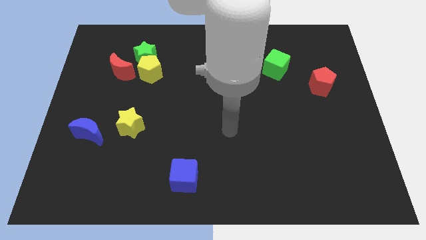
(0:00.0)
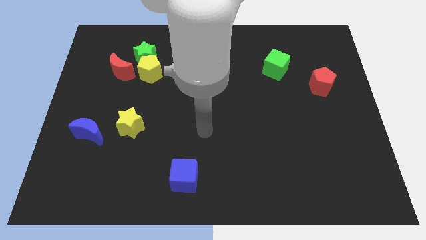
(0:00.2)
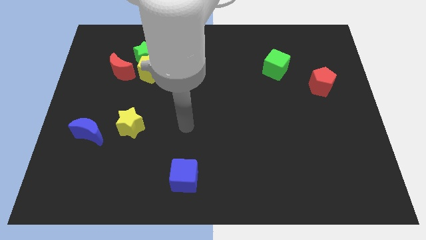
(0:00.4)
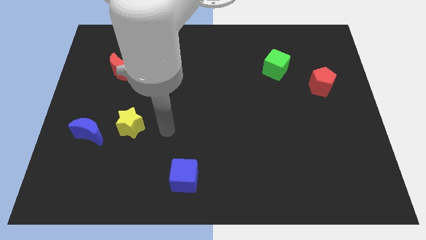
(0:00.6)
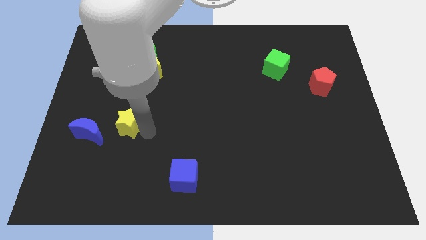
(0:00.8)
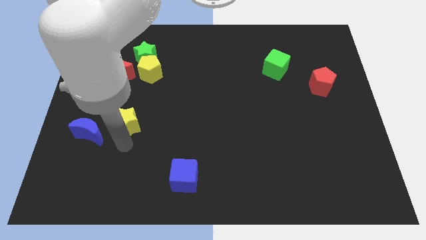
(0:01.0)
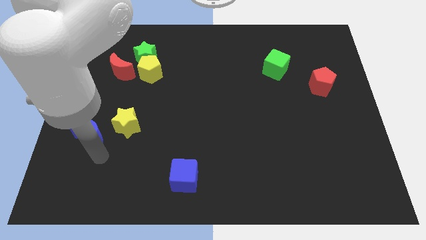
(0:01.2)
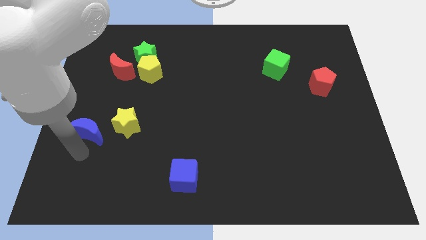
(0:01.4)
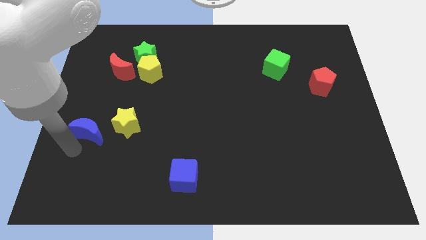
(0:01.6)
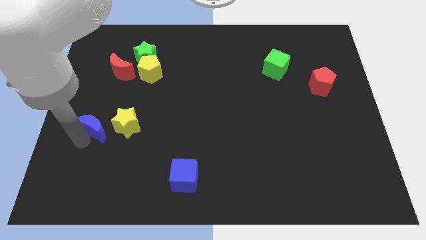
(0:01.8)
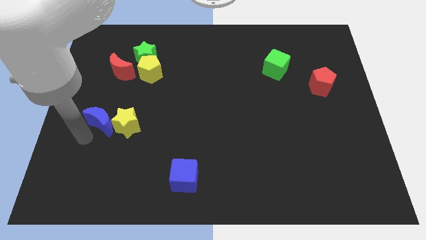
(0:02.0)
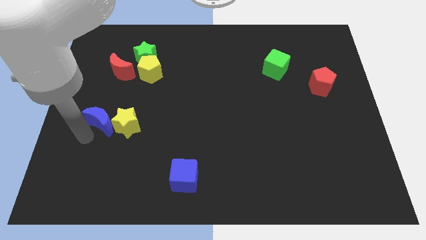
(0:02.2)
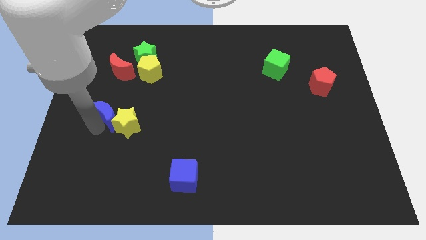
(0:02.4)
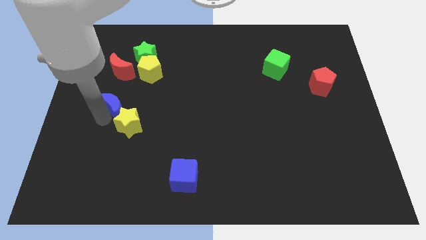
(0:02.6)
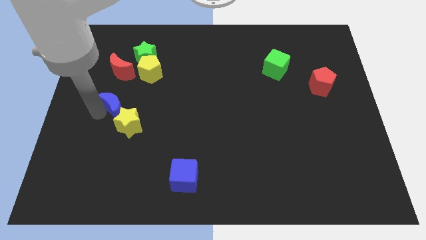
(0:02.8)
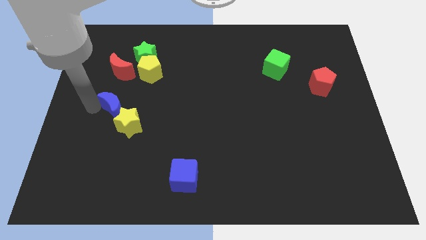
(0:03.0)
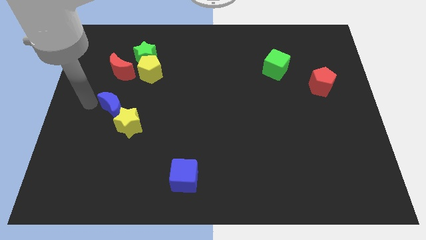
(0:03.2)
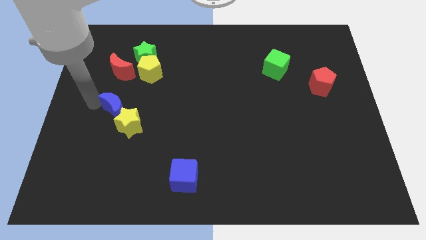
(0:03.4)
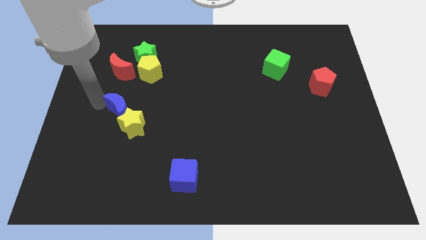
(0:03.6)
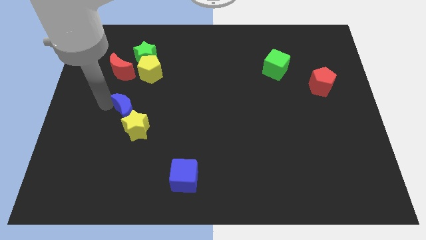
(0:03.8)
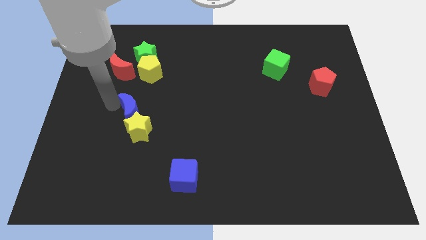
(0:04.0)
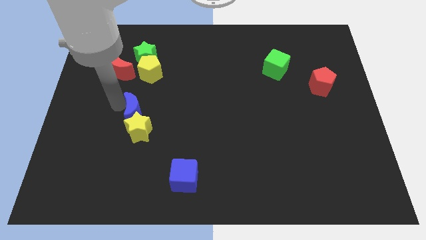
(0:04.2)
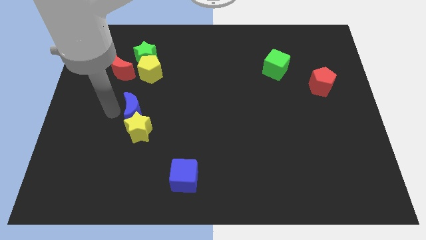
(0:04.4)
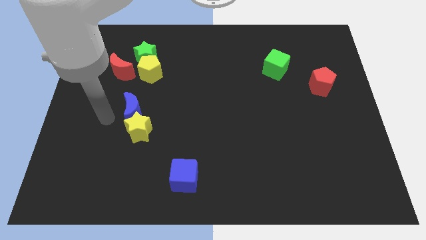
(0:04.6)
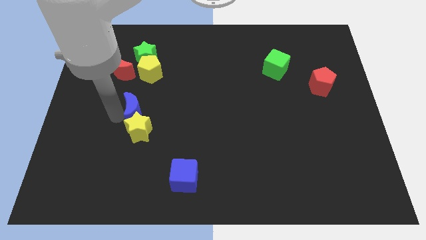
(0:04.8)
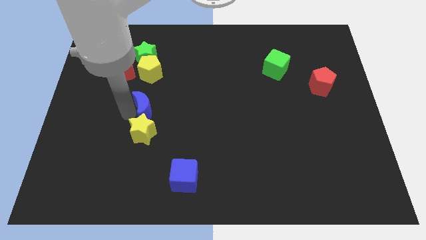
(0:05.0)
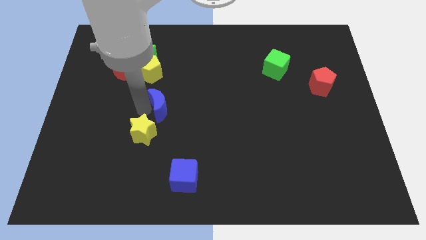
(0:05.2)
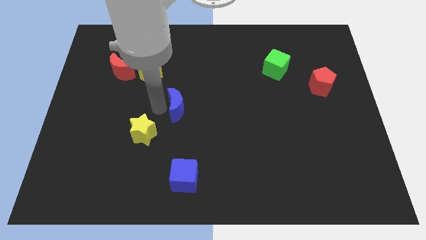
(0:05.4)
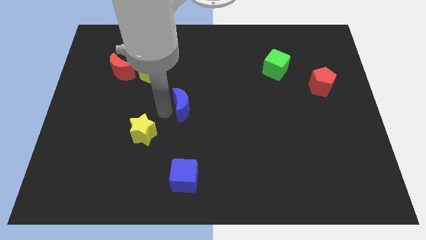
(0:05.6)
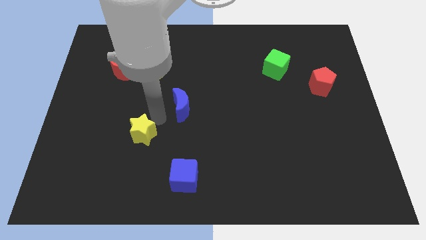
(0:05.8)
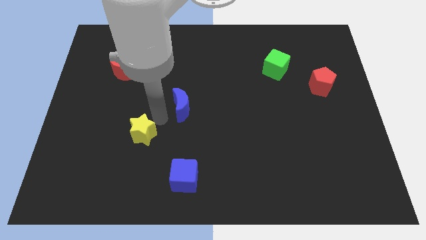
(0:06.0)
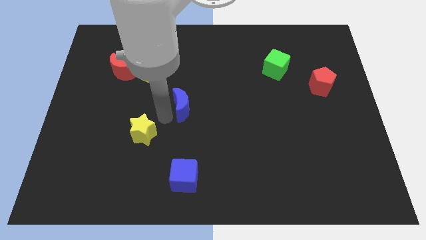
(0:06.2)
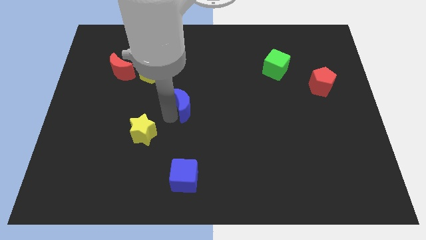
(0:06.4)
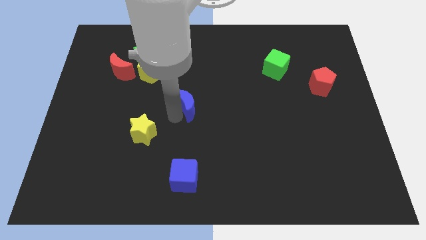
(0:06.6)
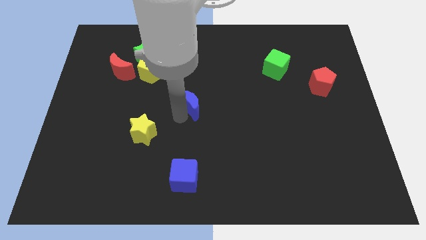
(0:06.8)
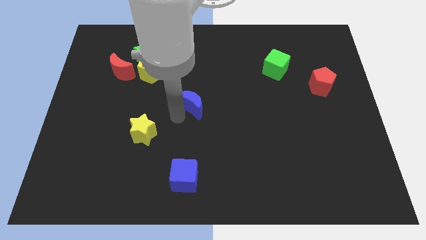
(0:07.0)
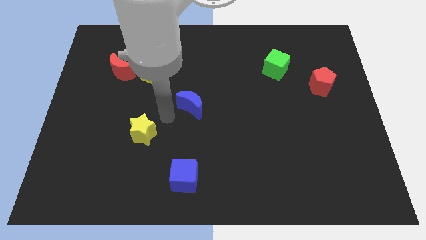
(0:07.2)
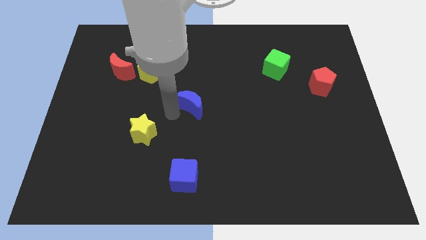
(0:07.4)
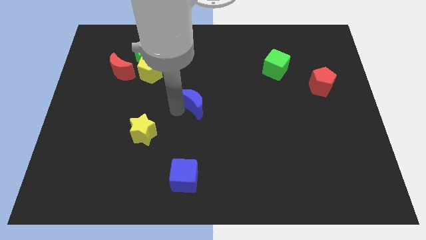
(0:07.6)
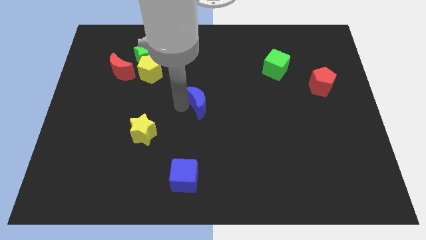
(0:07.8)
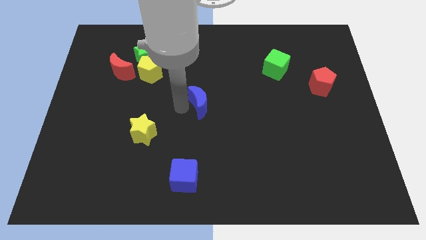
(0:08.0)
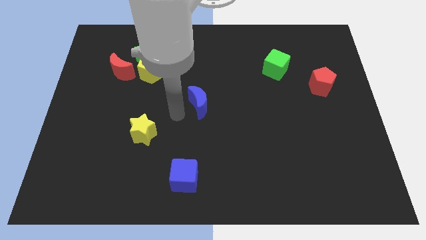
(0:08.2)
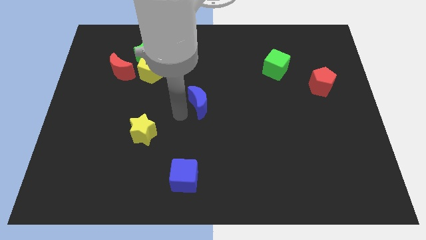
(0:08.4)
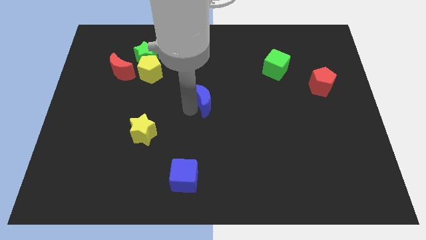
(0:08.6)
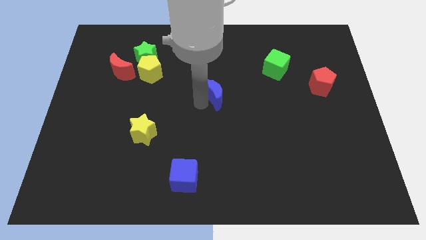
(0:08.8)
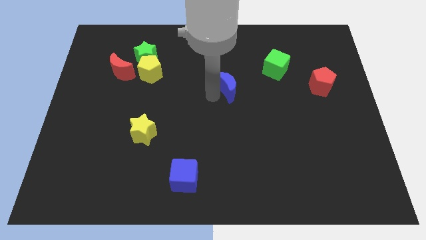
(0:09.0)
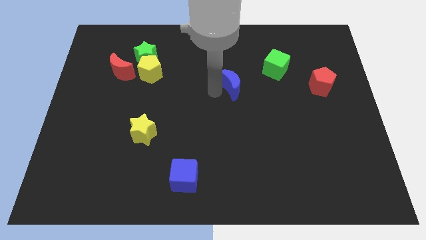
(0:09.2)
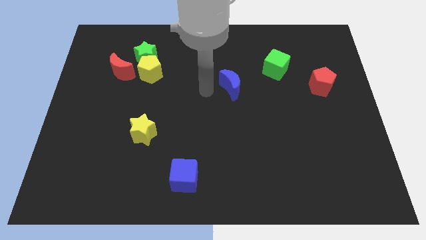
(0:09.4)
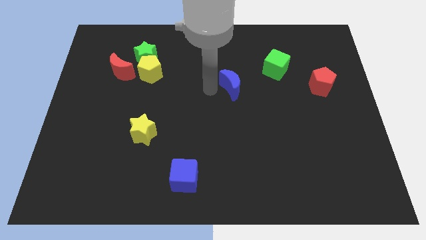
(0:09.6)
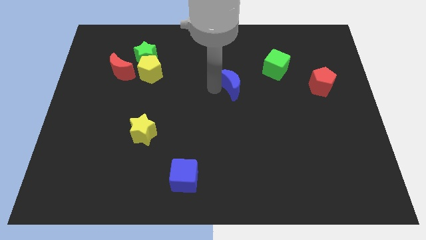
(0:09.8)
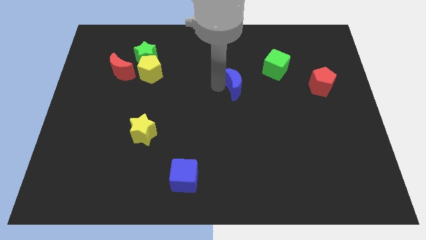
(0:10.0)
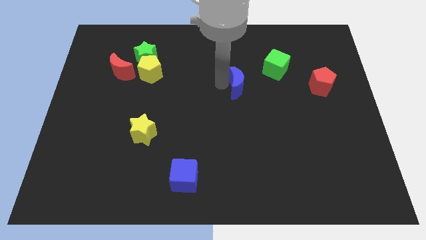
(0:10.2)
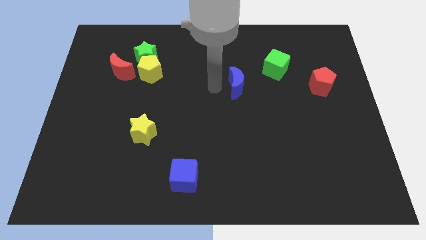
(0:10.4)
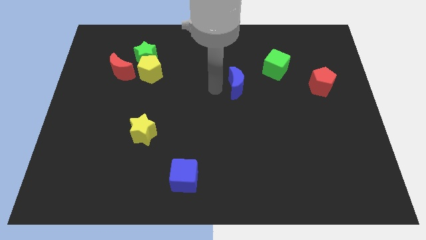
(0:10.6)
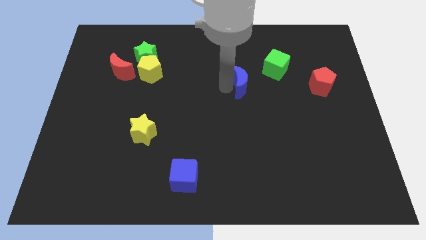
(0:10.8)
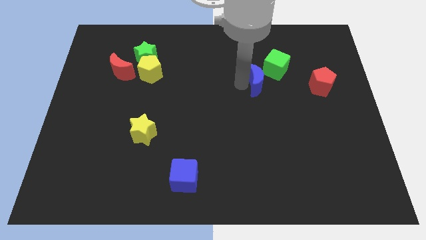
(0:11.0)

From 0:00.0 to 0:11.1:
push the blue moon to the left side of the red pentagon

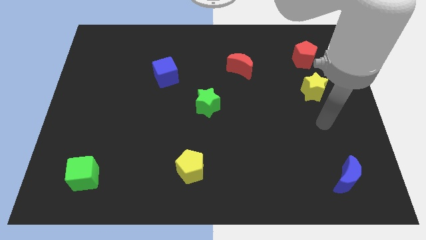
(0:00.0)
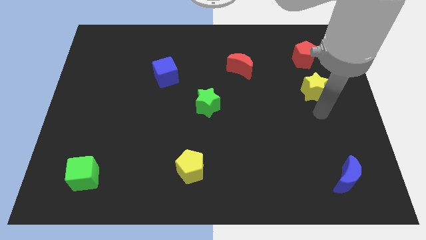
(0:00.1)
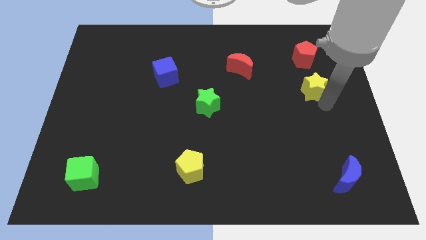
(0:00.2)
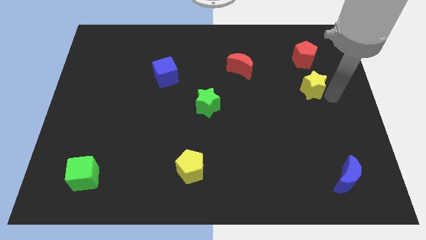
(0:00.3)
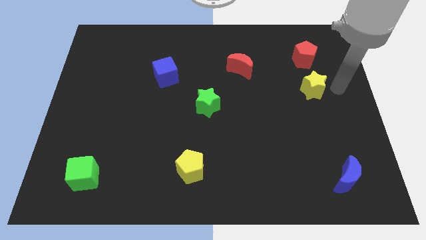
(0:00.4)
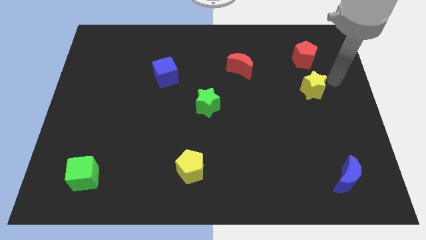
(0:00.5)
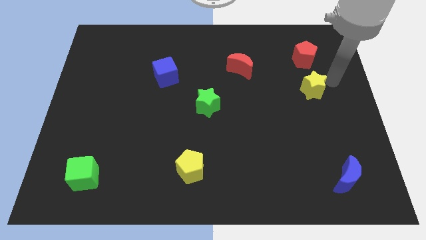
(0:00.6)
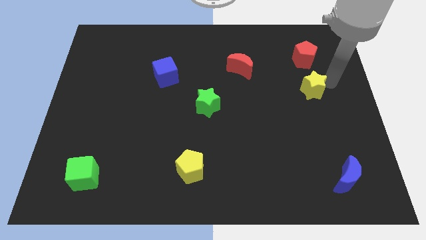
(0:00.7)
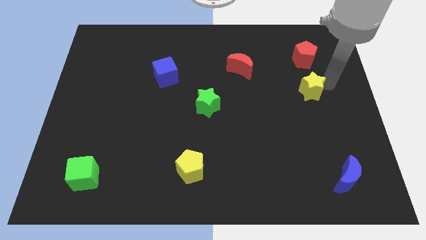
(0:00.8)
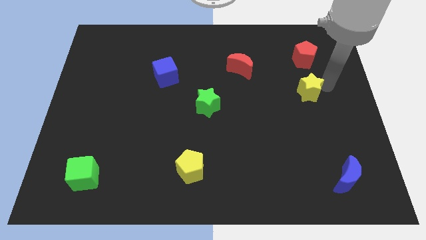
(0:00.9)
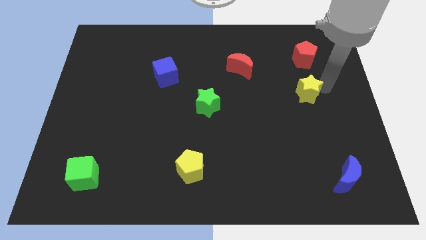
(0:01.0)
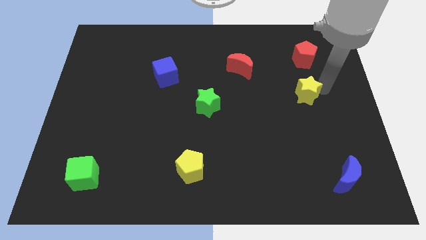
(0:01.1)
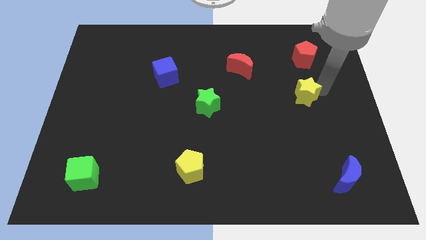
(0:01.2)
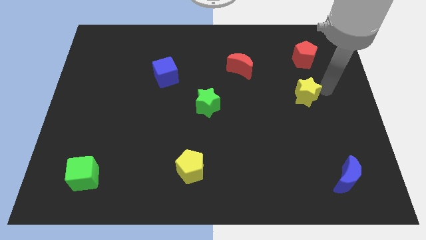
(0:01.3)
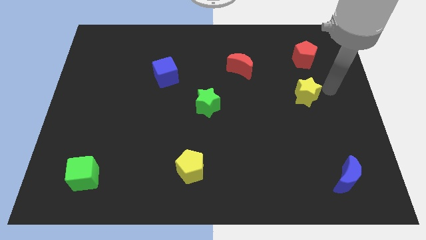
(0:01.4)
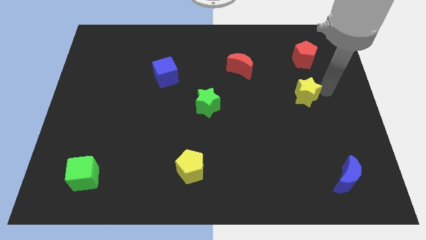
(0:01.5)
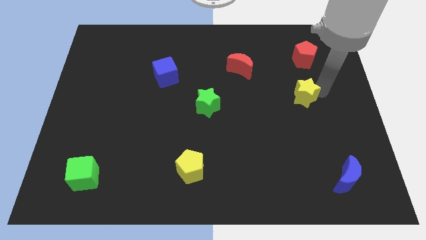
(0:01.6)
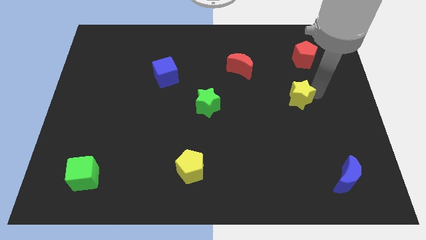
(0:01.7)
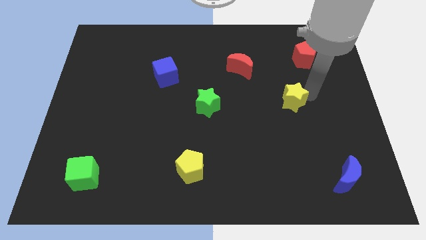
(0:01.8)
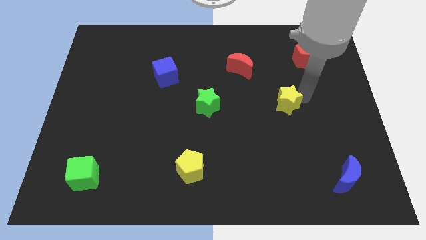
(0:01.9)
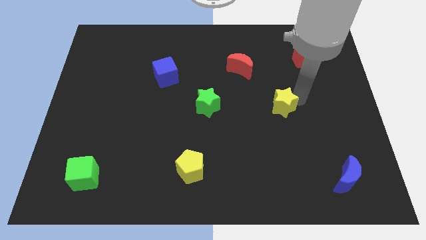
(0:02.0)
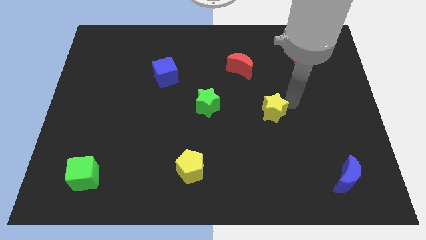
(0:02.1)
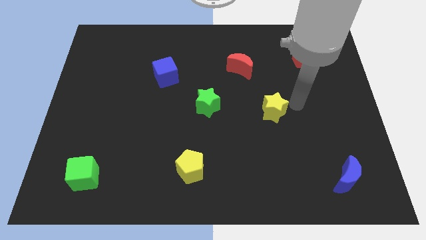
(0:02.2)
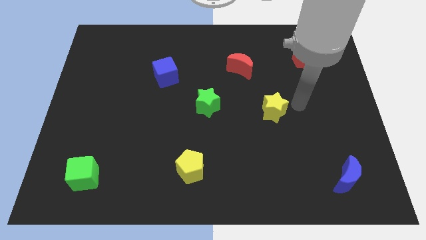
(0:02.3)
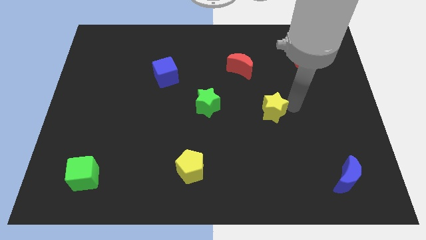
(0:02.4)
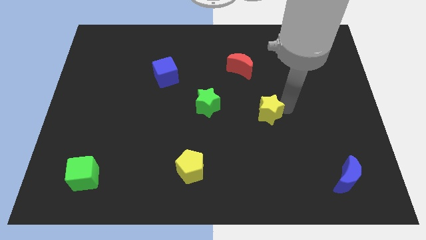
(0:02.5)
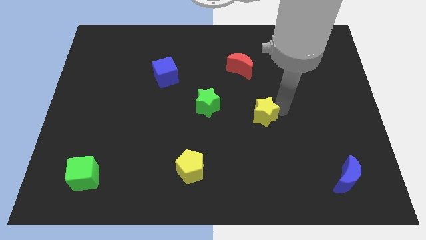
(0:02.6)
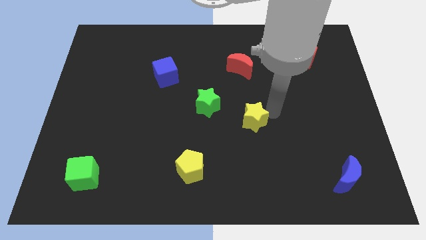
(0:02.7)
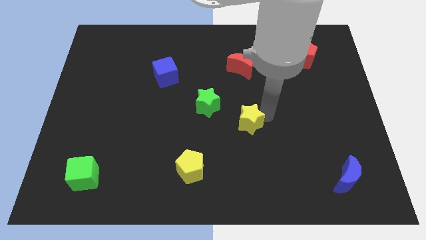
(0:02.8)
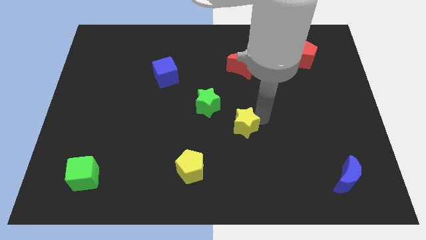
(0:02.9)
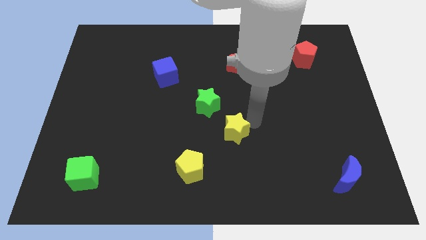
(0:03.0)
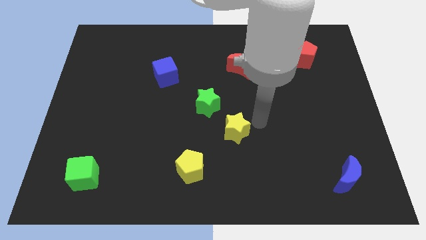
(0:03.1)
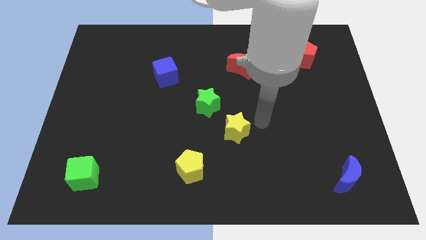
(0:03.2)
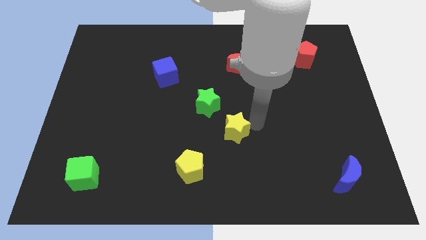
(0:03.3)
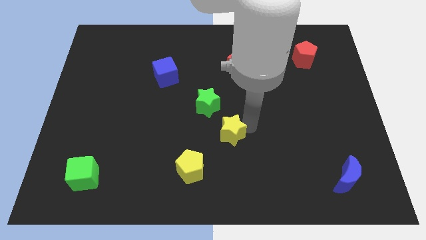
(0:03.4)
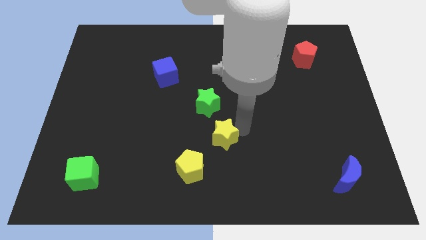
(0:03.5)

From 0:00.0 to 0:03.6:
slide the yellow star below the green star
